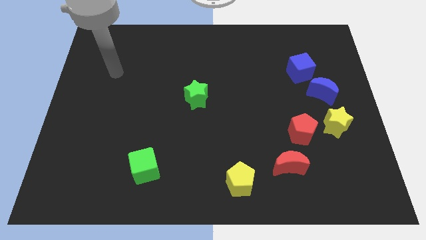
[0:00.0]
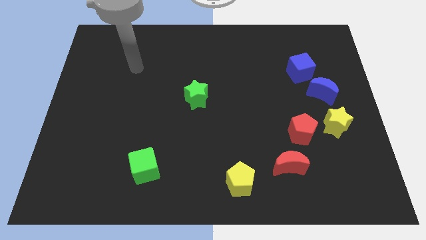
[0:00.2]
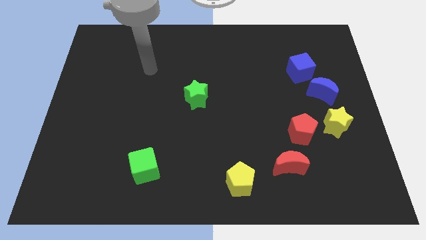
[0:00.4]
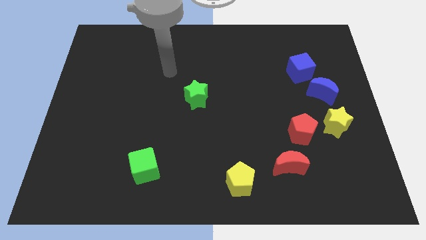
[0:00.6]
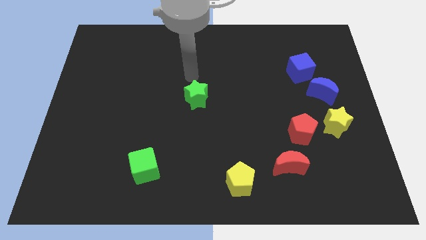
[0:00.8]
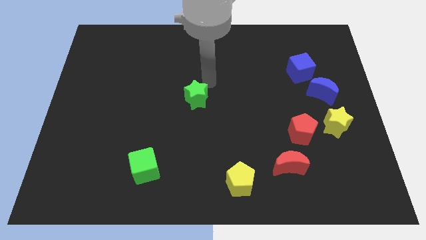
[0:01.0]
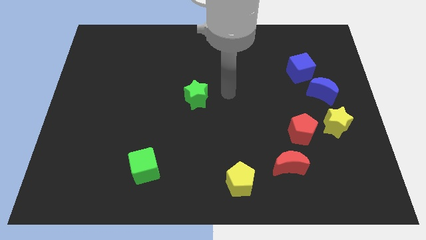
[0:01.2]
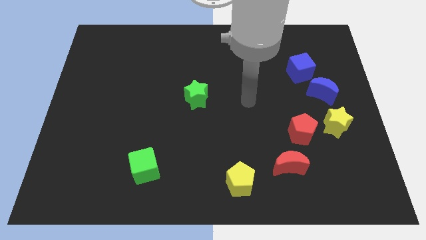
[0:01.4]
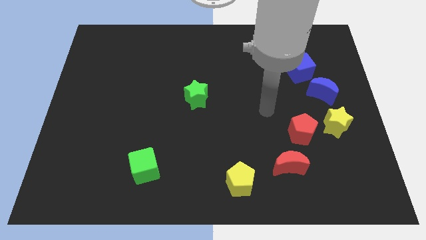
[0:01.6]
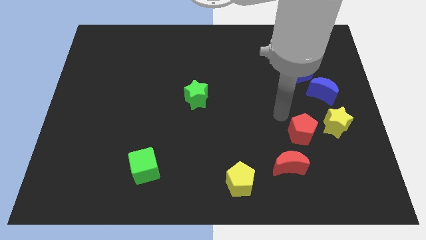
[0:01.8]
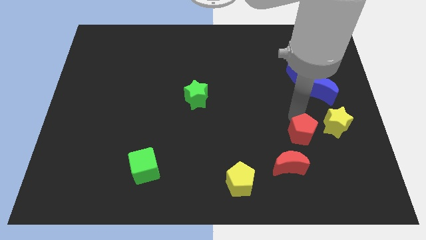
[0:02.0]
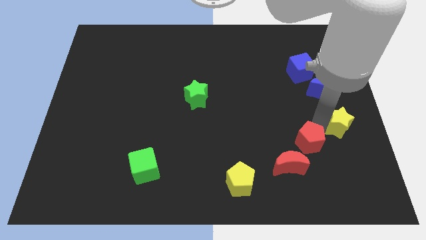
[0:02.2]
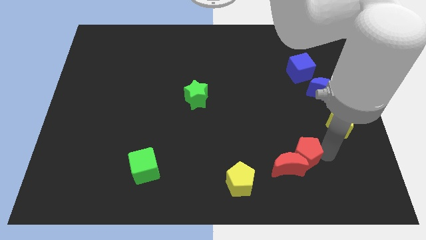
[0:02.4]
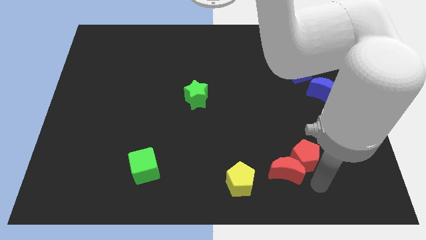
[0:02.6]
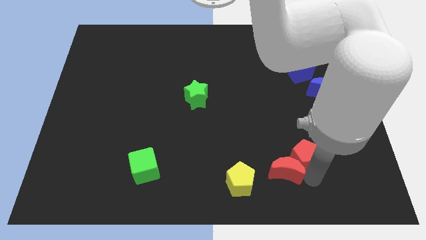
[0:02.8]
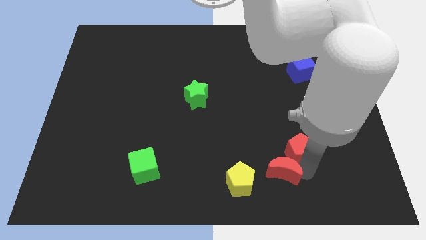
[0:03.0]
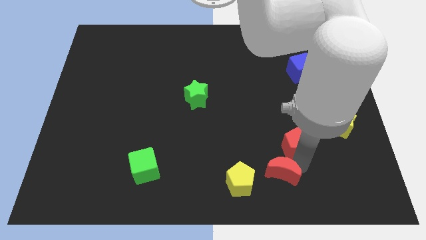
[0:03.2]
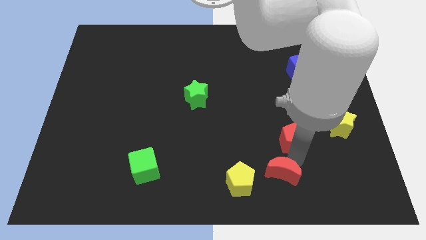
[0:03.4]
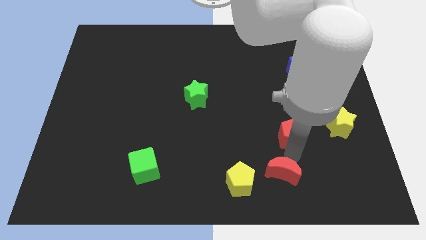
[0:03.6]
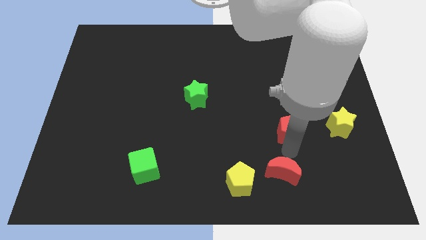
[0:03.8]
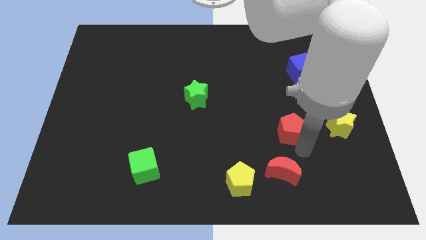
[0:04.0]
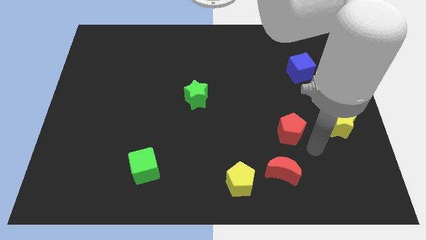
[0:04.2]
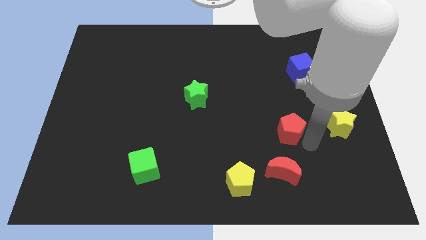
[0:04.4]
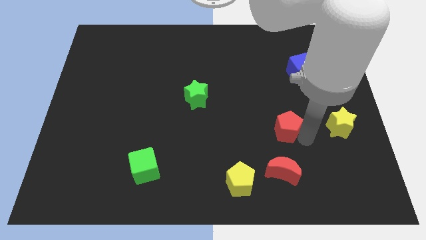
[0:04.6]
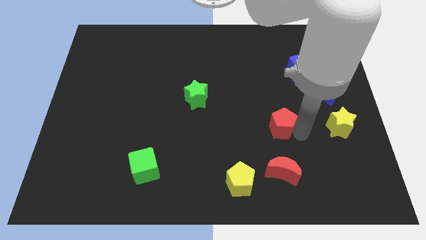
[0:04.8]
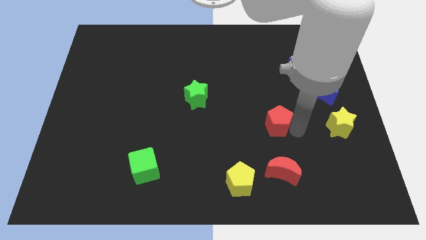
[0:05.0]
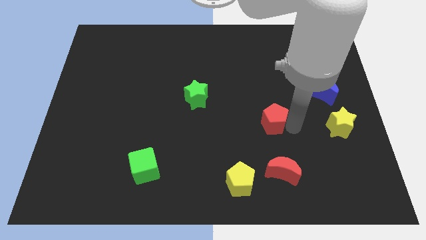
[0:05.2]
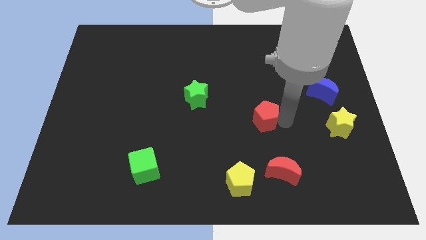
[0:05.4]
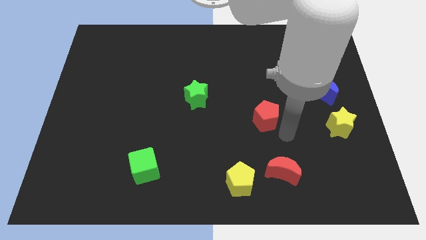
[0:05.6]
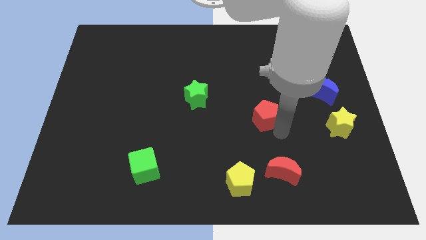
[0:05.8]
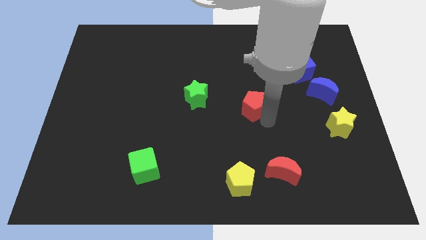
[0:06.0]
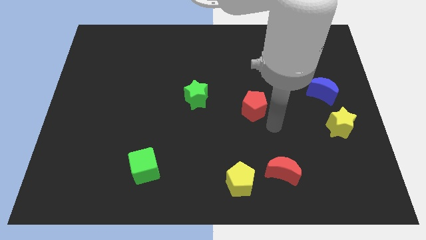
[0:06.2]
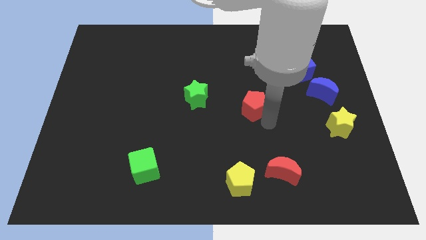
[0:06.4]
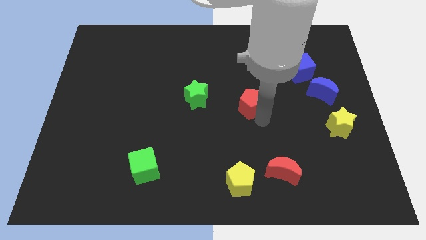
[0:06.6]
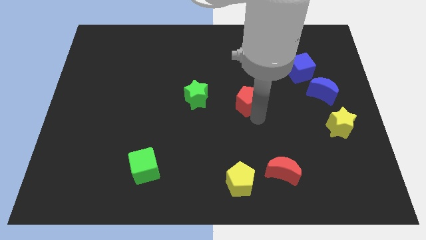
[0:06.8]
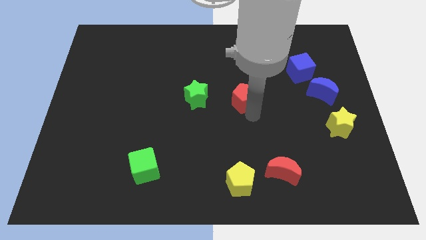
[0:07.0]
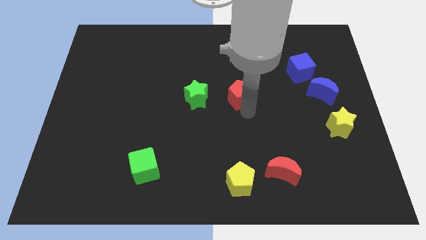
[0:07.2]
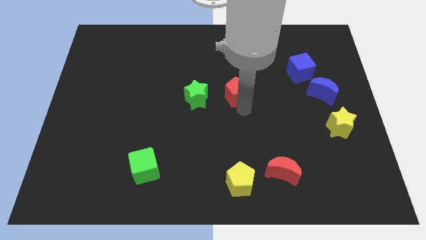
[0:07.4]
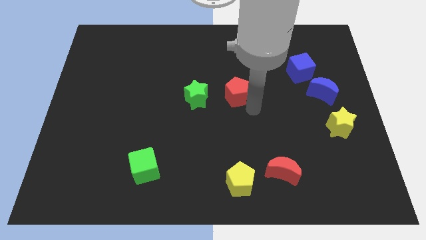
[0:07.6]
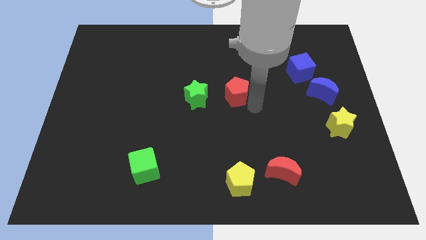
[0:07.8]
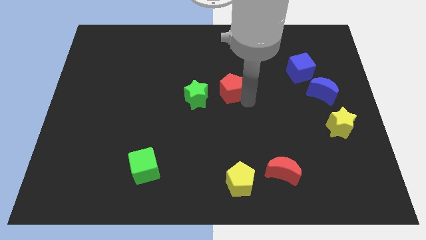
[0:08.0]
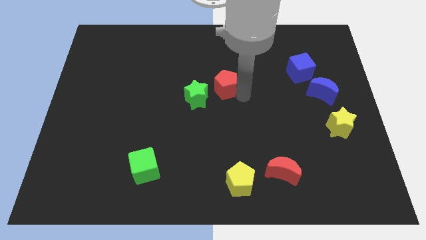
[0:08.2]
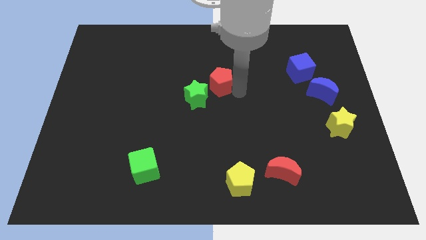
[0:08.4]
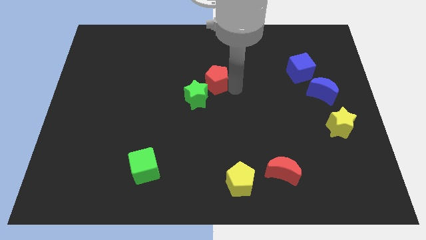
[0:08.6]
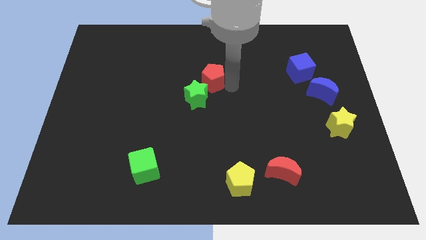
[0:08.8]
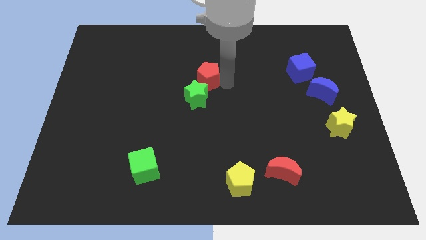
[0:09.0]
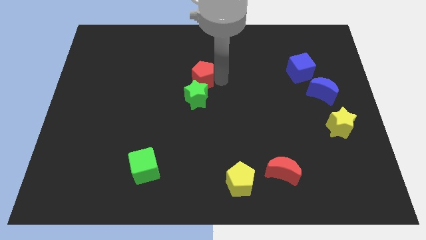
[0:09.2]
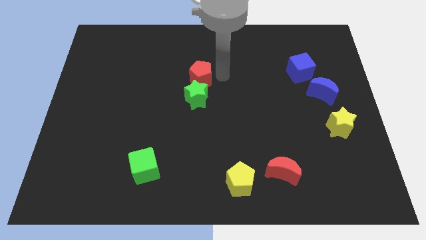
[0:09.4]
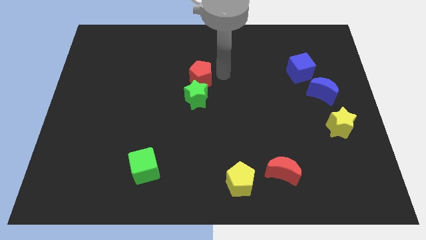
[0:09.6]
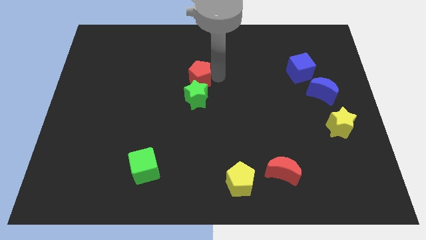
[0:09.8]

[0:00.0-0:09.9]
push the red pentagon to the top left of the green star

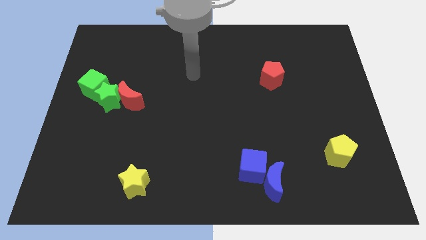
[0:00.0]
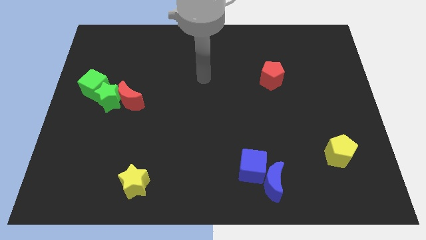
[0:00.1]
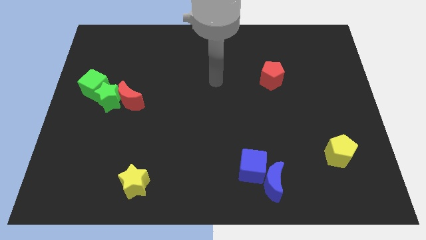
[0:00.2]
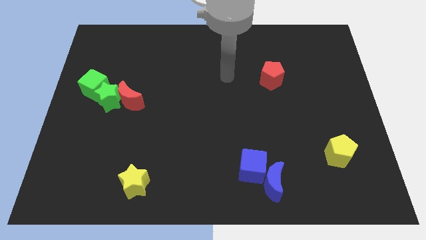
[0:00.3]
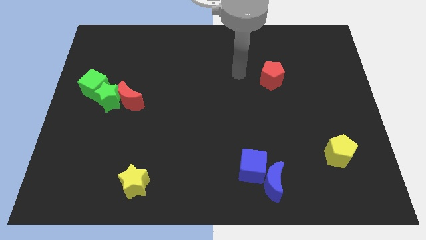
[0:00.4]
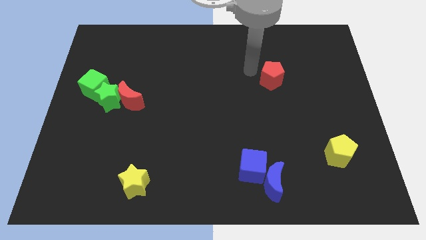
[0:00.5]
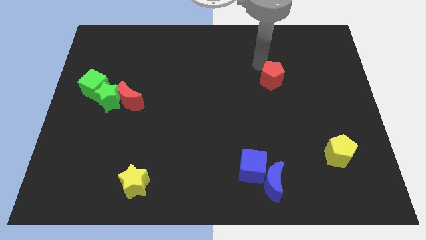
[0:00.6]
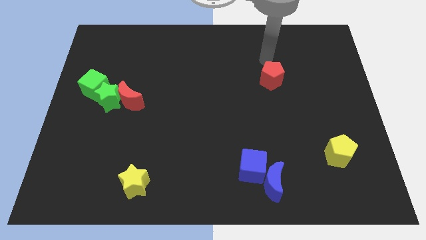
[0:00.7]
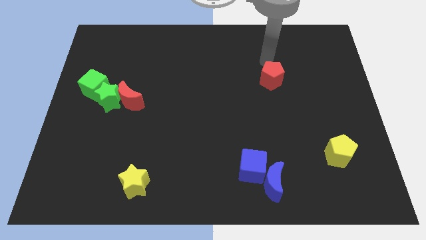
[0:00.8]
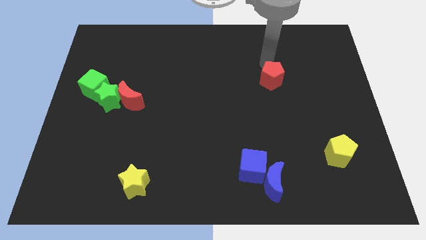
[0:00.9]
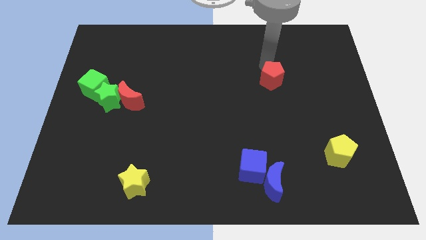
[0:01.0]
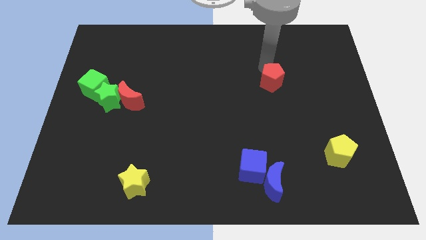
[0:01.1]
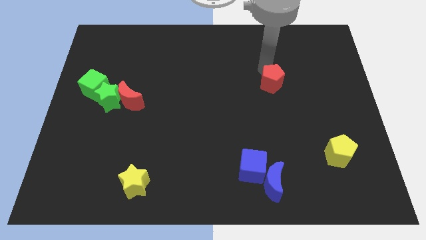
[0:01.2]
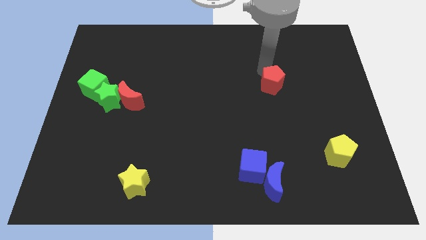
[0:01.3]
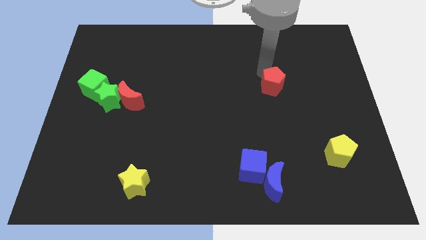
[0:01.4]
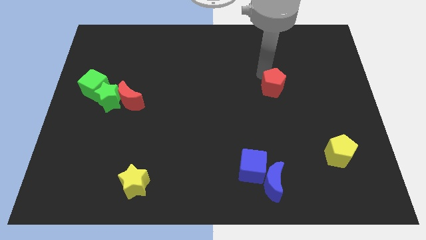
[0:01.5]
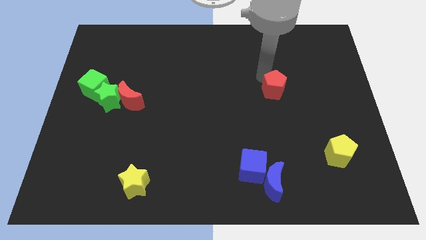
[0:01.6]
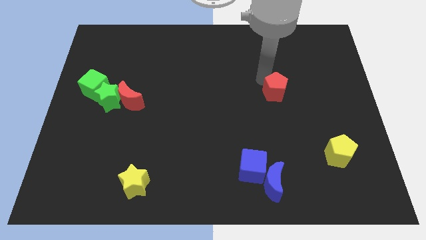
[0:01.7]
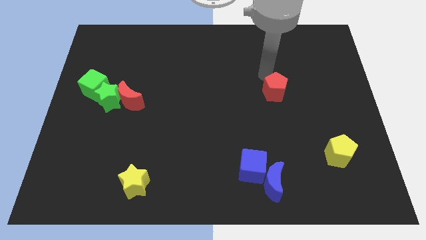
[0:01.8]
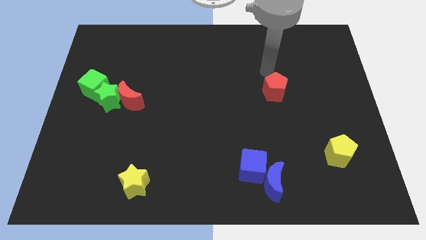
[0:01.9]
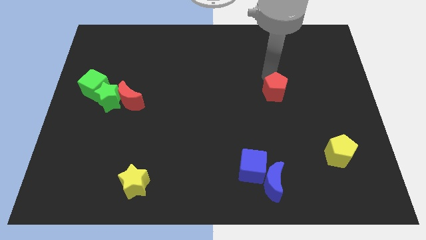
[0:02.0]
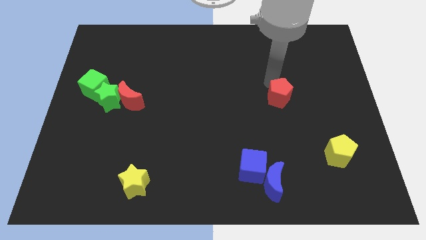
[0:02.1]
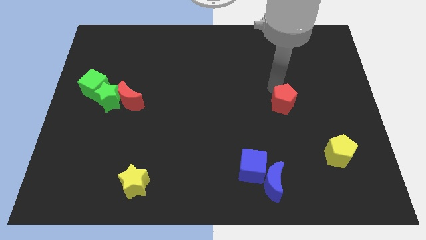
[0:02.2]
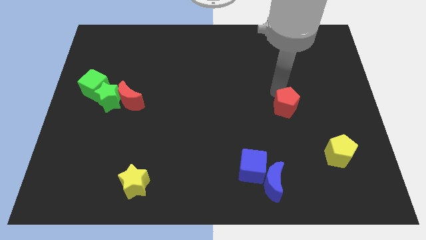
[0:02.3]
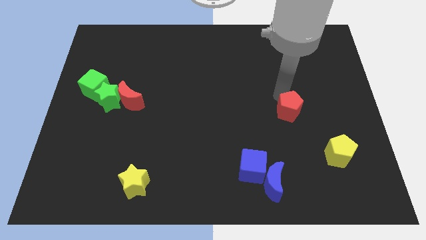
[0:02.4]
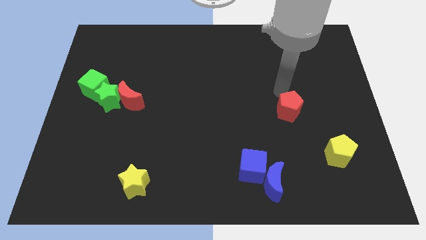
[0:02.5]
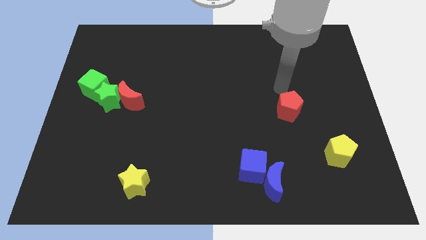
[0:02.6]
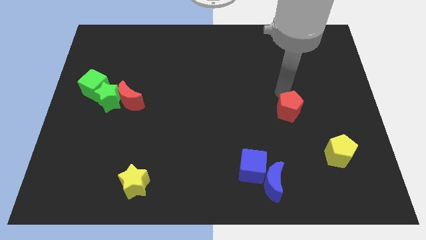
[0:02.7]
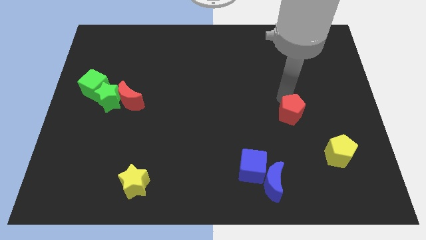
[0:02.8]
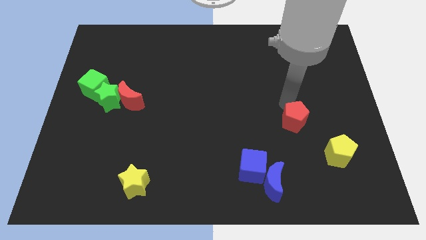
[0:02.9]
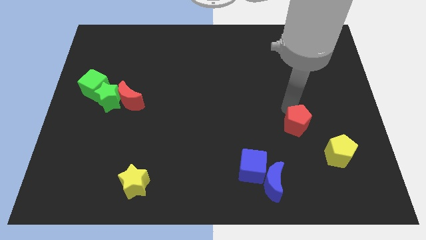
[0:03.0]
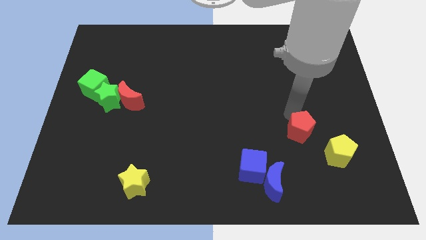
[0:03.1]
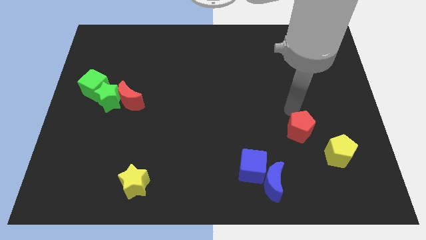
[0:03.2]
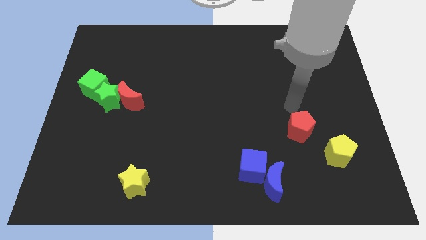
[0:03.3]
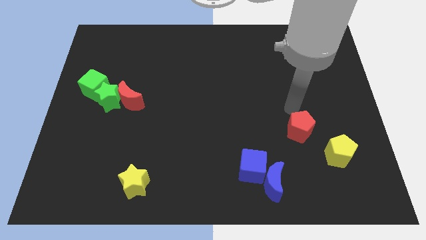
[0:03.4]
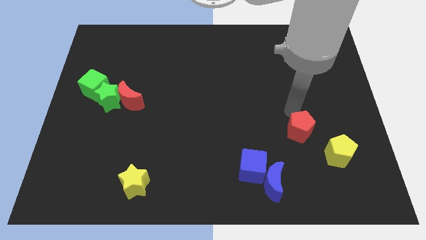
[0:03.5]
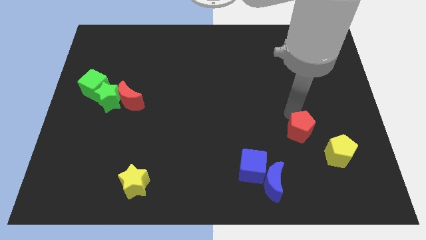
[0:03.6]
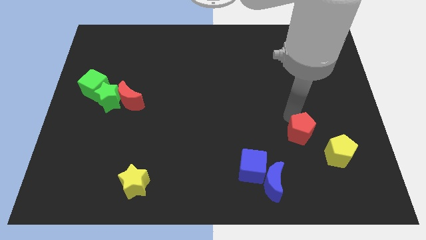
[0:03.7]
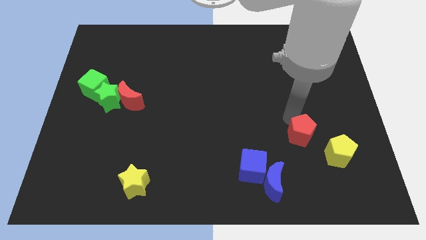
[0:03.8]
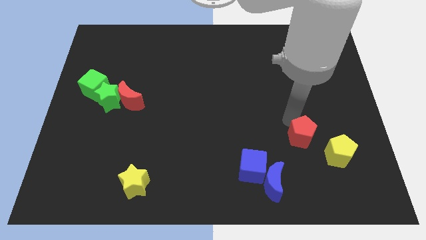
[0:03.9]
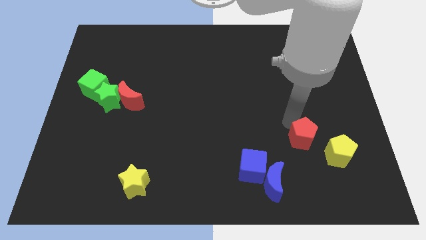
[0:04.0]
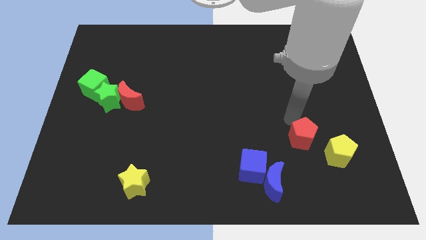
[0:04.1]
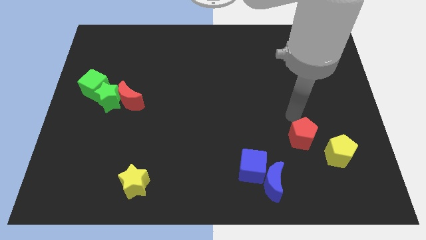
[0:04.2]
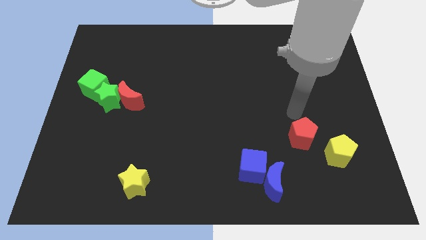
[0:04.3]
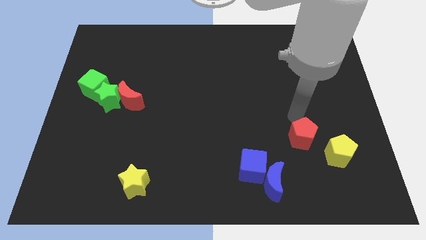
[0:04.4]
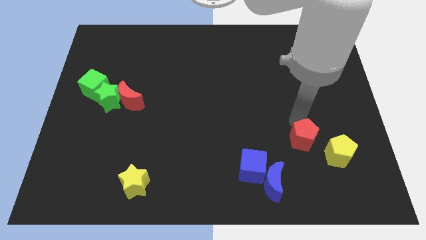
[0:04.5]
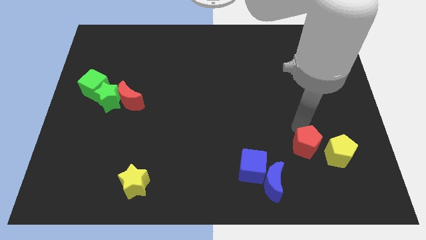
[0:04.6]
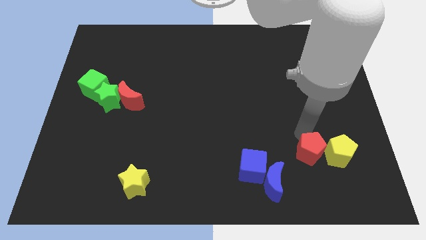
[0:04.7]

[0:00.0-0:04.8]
push the red pentagon to the right of the blue cube
